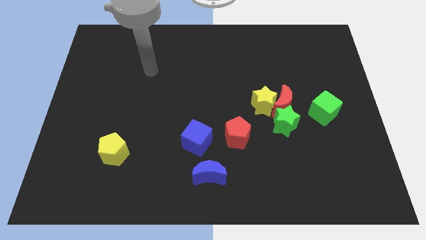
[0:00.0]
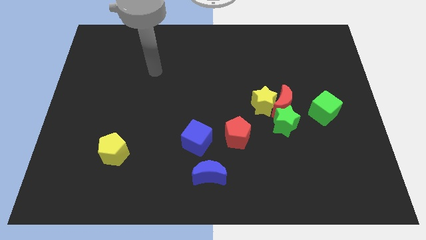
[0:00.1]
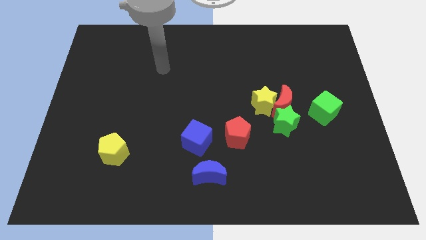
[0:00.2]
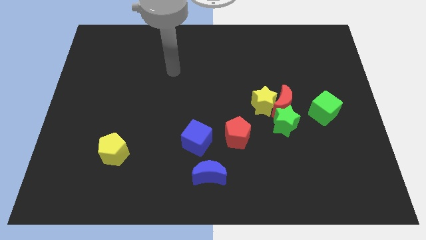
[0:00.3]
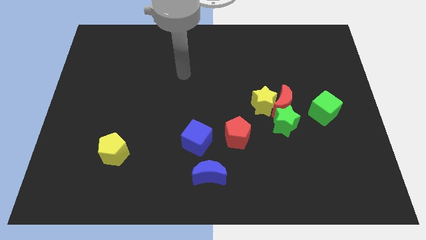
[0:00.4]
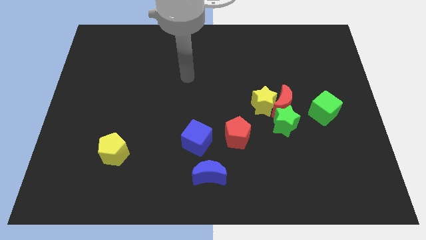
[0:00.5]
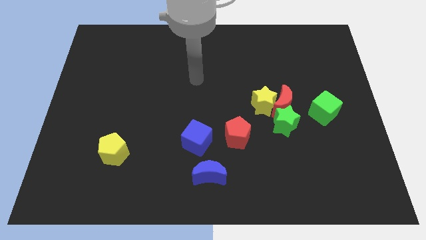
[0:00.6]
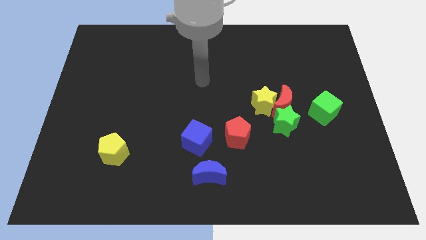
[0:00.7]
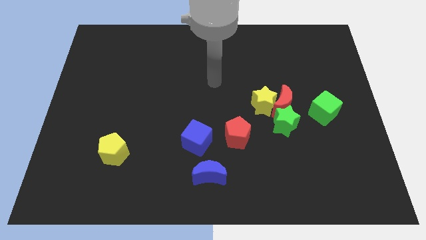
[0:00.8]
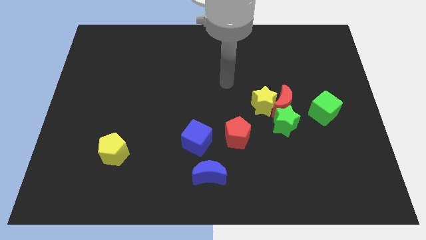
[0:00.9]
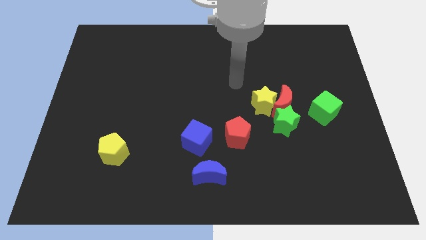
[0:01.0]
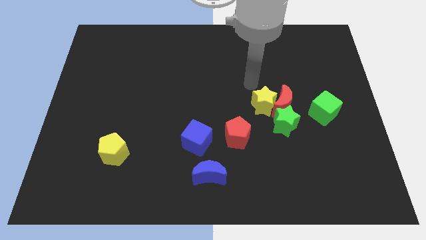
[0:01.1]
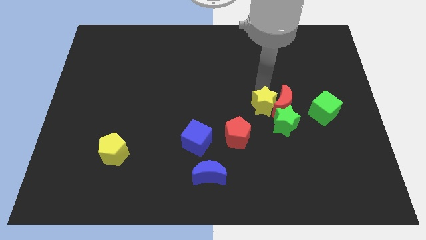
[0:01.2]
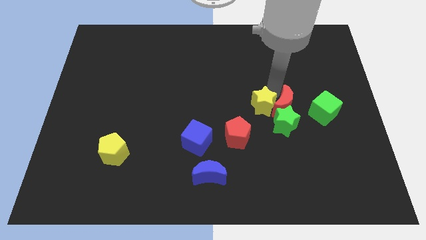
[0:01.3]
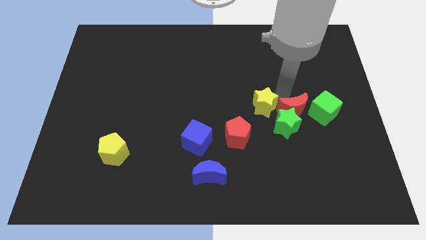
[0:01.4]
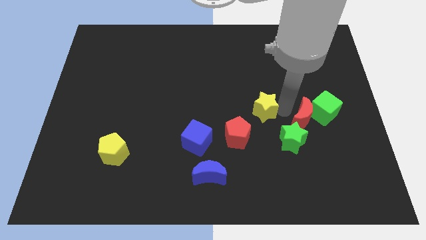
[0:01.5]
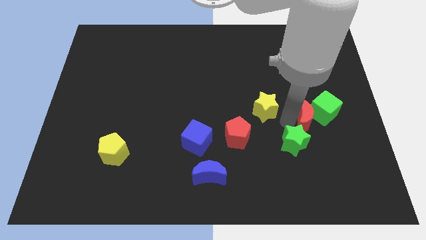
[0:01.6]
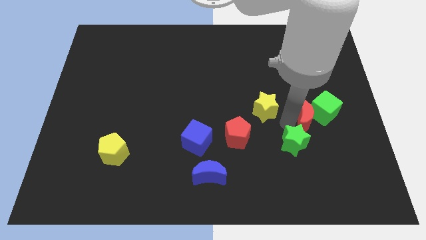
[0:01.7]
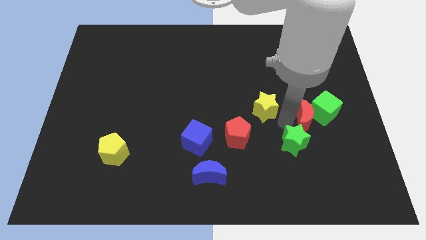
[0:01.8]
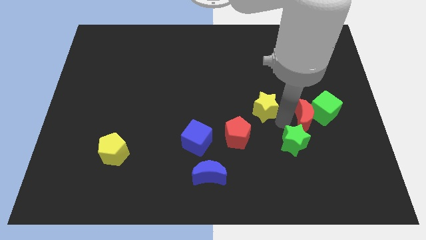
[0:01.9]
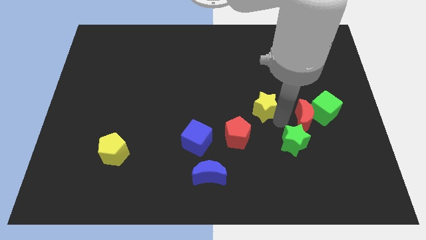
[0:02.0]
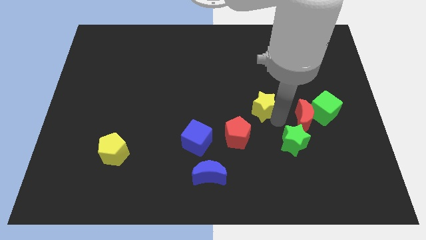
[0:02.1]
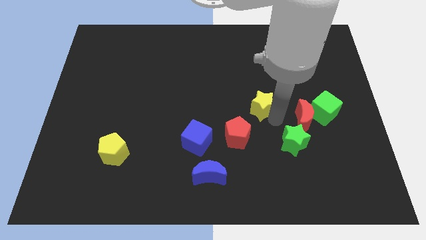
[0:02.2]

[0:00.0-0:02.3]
move the yellow star away from the red moon and green star

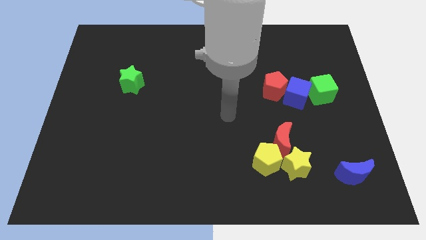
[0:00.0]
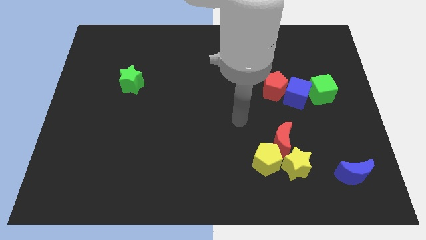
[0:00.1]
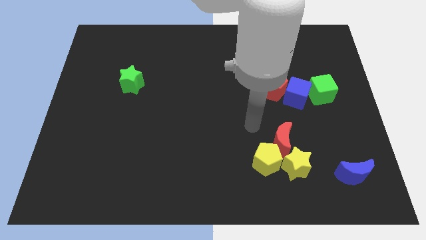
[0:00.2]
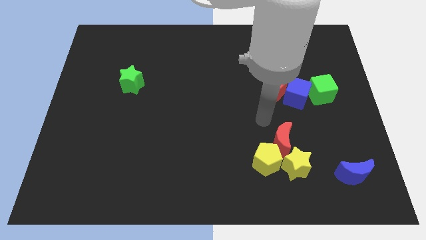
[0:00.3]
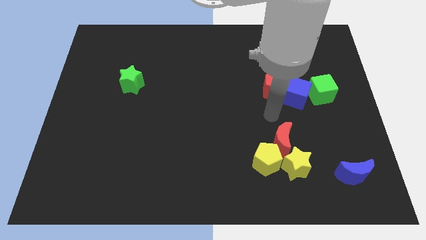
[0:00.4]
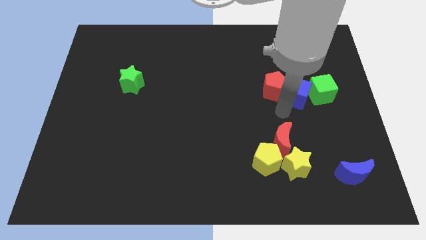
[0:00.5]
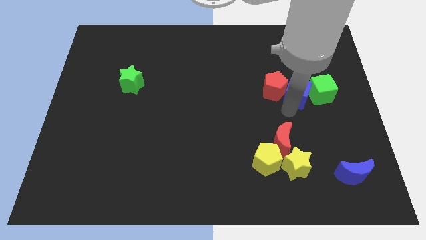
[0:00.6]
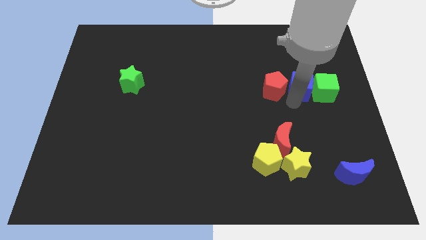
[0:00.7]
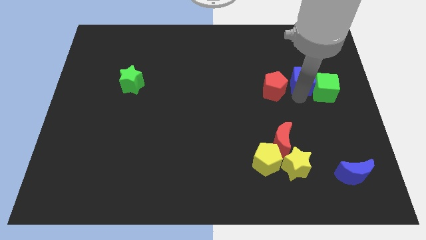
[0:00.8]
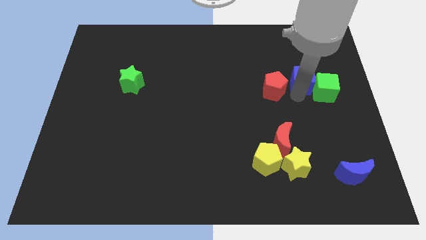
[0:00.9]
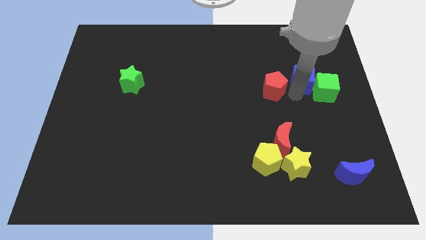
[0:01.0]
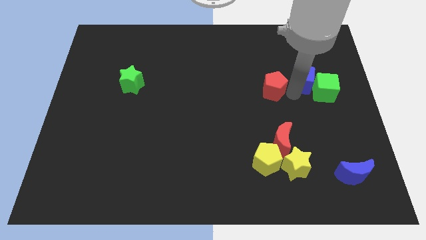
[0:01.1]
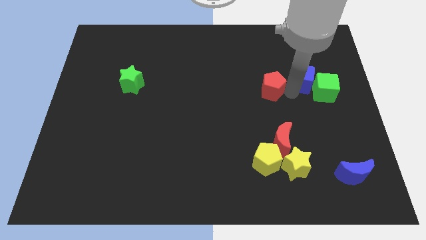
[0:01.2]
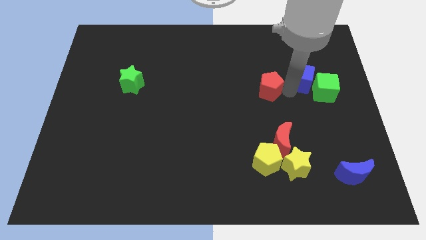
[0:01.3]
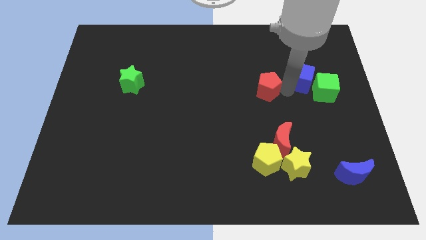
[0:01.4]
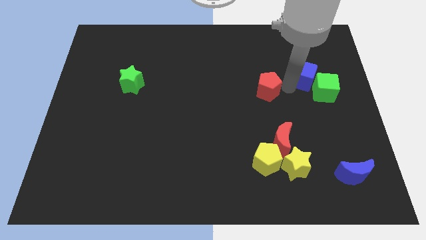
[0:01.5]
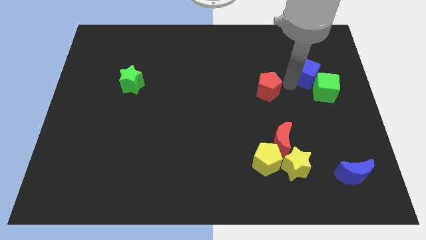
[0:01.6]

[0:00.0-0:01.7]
pull the red pentagon apart from the blue cube

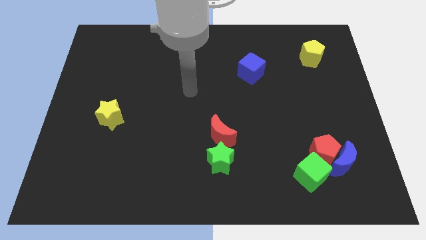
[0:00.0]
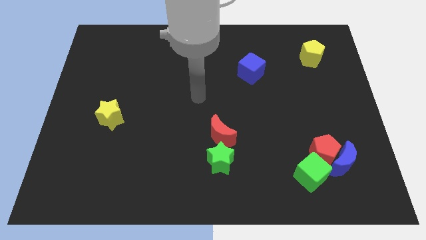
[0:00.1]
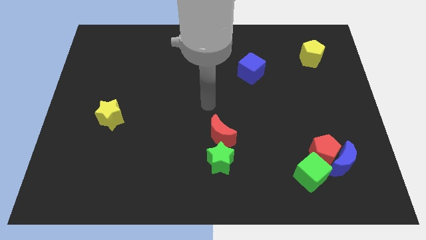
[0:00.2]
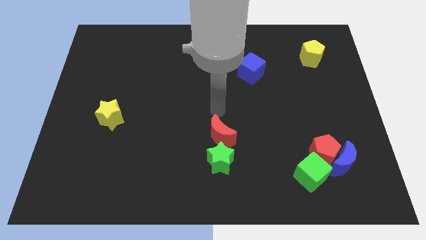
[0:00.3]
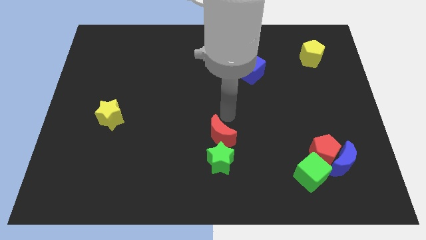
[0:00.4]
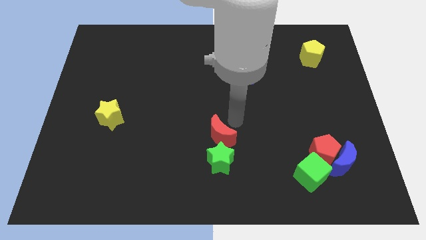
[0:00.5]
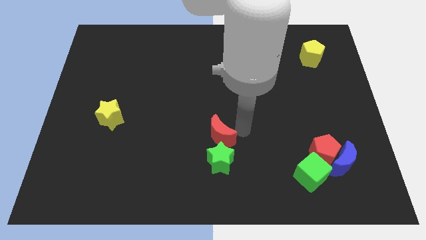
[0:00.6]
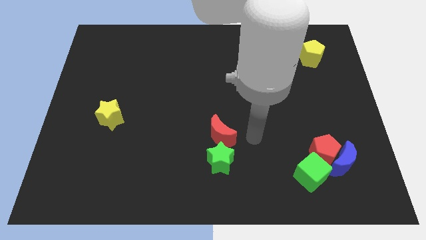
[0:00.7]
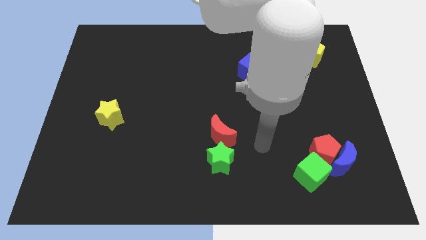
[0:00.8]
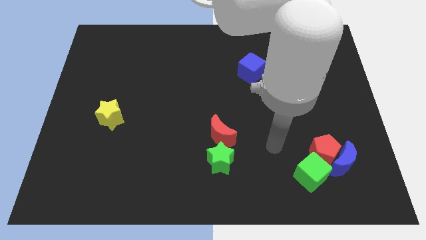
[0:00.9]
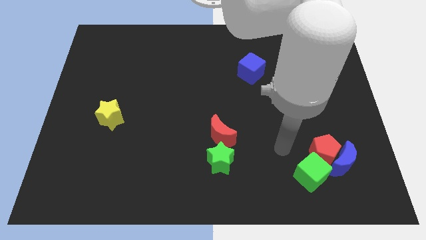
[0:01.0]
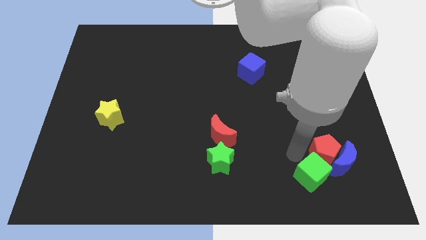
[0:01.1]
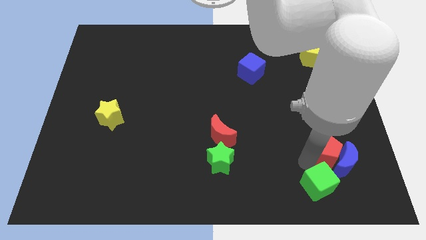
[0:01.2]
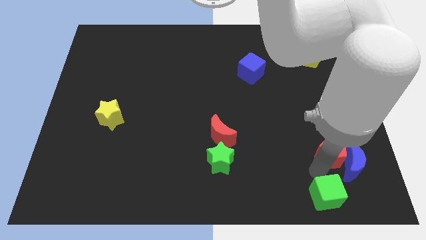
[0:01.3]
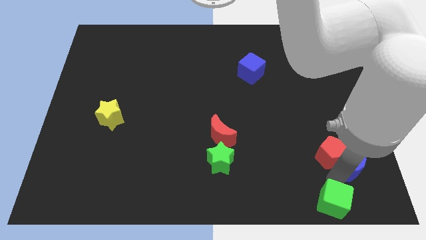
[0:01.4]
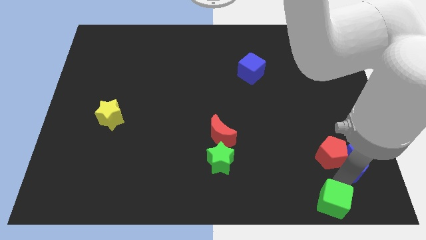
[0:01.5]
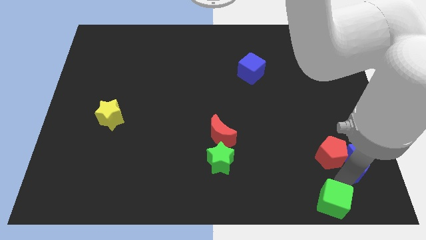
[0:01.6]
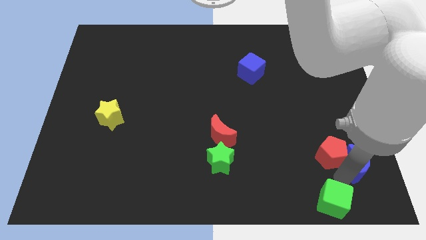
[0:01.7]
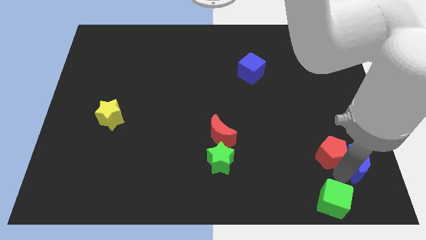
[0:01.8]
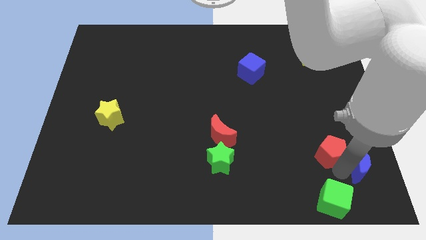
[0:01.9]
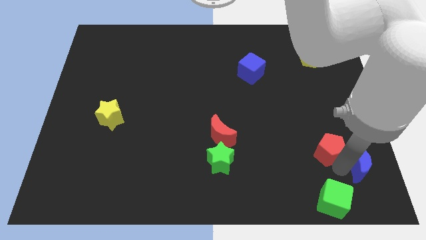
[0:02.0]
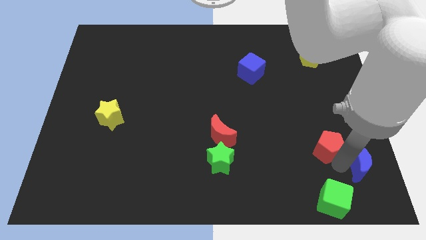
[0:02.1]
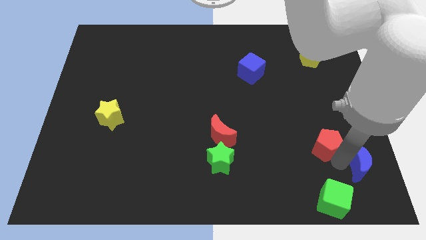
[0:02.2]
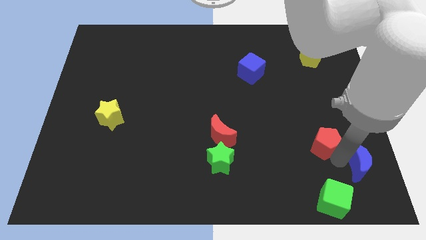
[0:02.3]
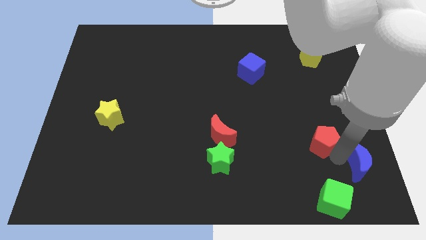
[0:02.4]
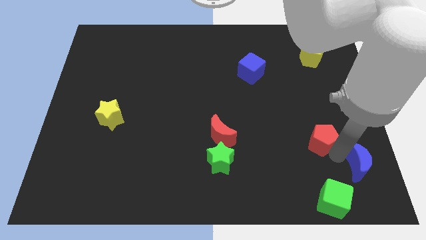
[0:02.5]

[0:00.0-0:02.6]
pull the red pentagon apart from the blue moon and green cube

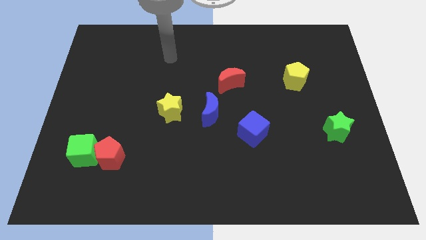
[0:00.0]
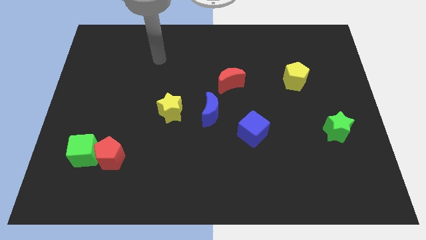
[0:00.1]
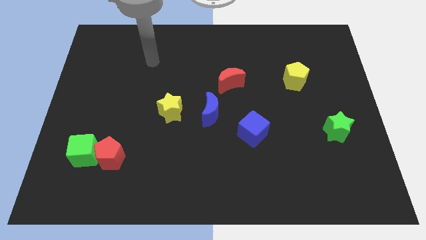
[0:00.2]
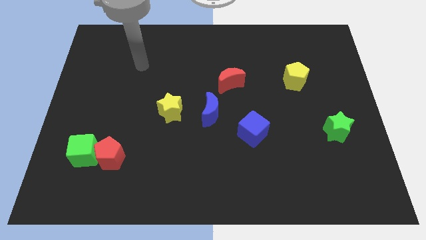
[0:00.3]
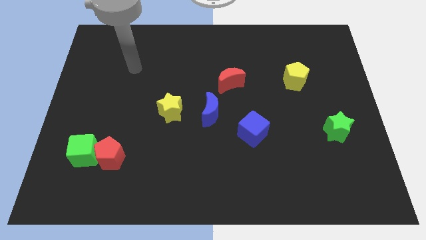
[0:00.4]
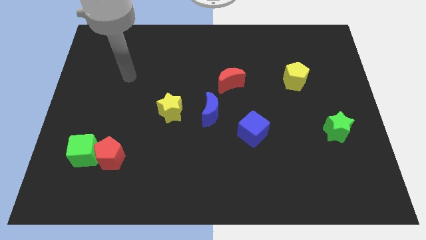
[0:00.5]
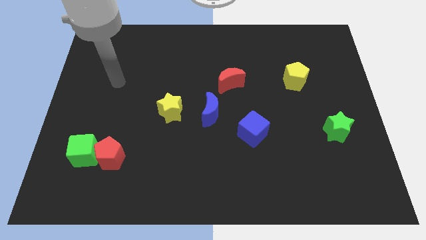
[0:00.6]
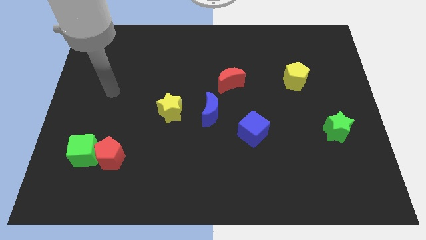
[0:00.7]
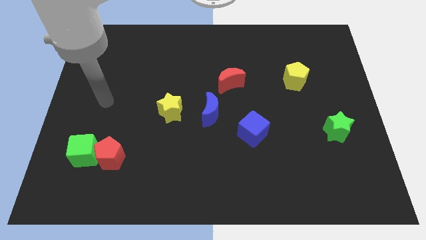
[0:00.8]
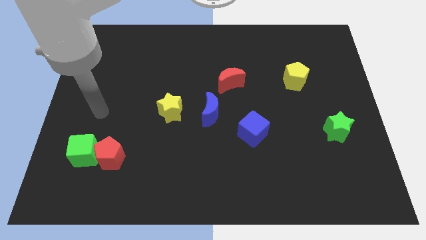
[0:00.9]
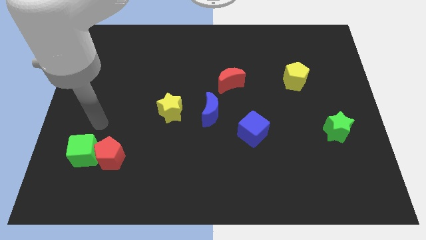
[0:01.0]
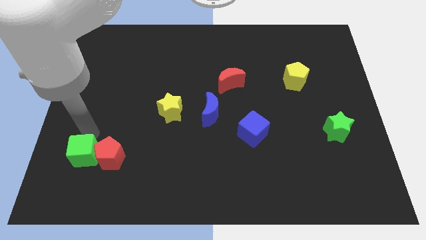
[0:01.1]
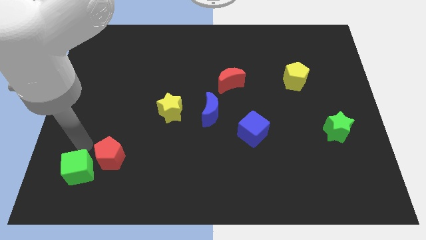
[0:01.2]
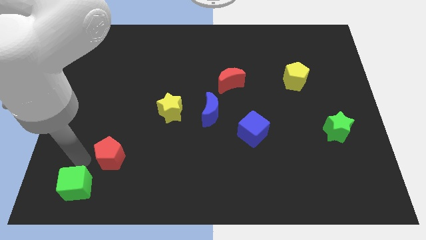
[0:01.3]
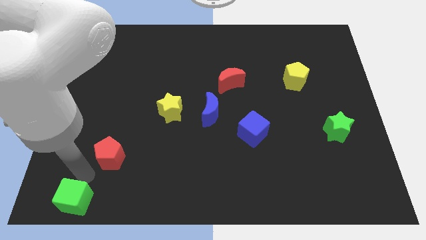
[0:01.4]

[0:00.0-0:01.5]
pull the red pentagon apart from the green cube

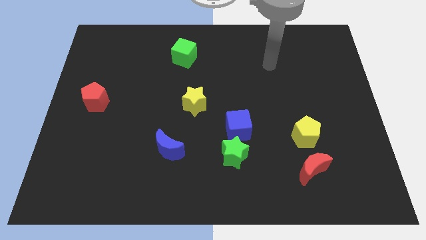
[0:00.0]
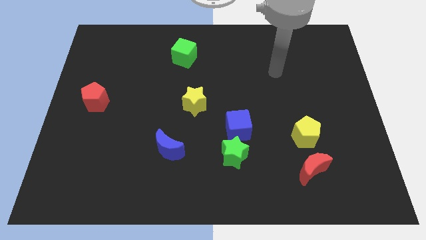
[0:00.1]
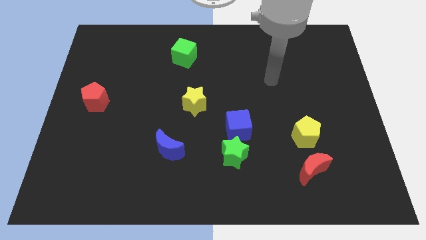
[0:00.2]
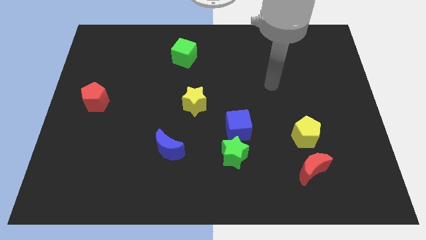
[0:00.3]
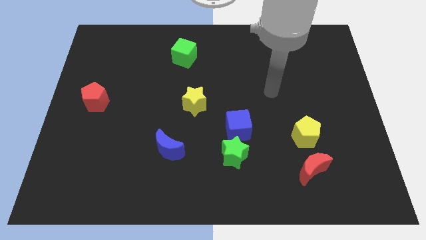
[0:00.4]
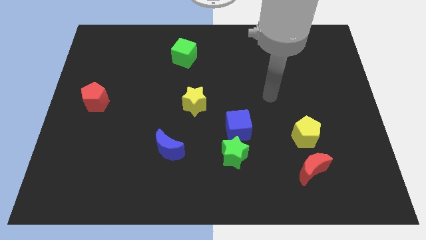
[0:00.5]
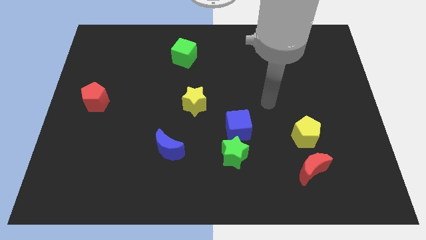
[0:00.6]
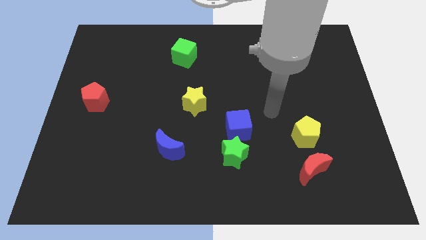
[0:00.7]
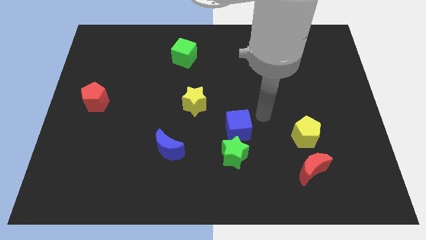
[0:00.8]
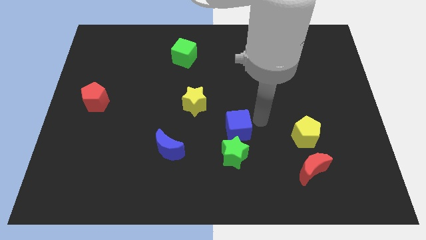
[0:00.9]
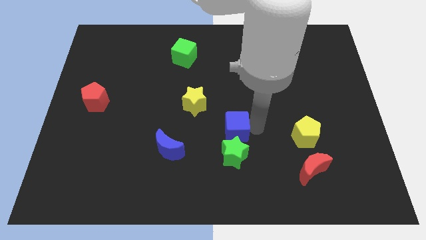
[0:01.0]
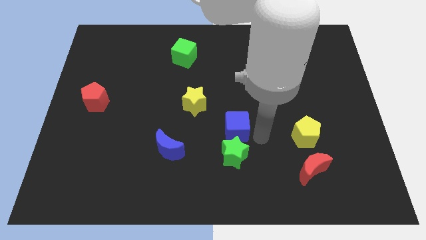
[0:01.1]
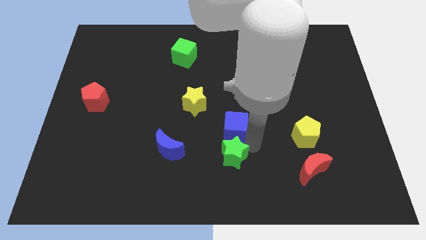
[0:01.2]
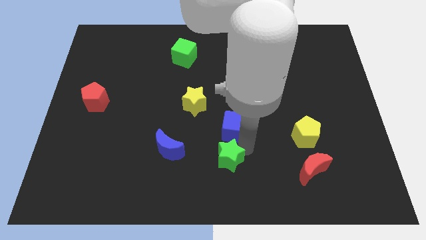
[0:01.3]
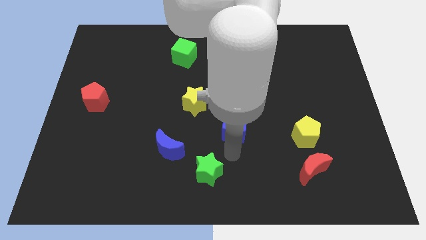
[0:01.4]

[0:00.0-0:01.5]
separate the blue cube from the green star
